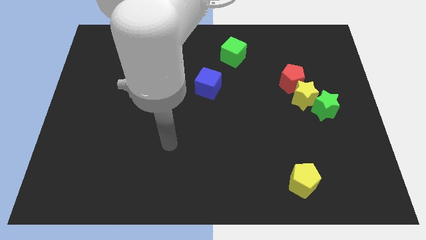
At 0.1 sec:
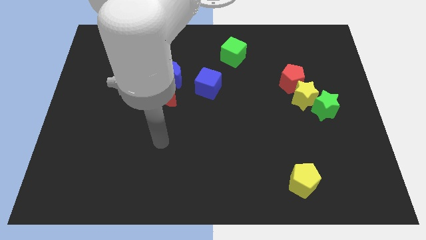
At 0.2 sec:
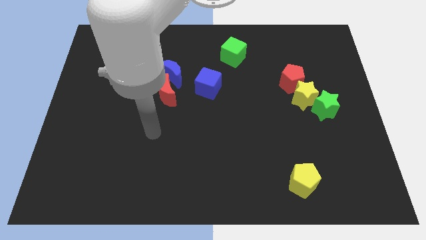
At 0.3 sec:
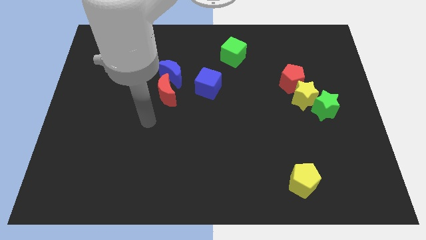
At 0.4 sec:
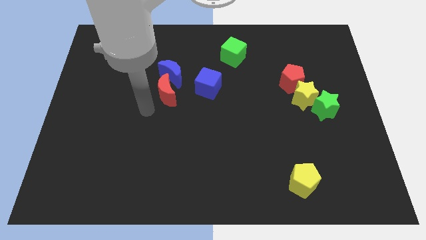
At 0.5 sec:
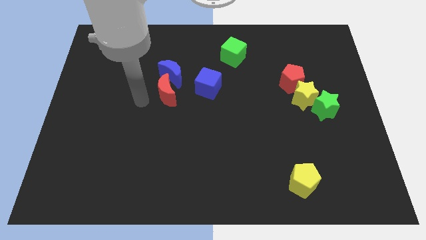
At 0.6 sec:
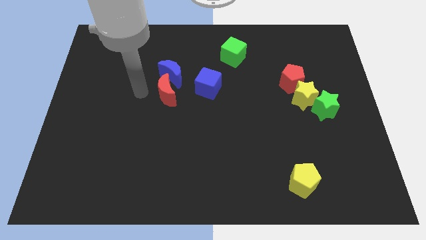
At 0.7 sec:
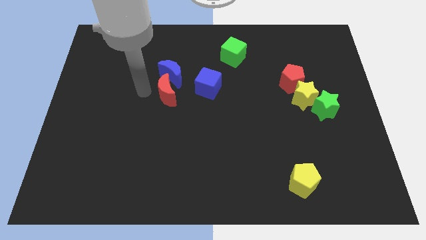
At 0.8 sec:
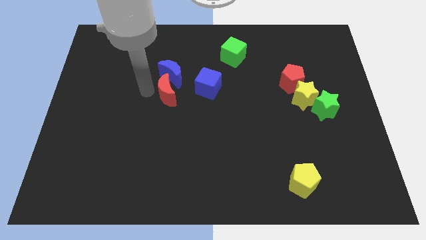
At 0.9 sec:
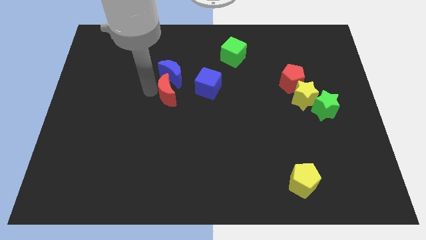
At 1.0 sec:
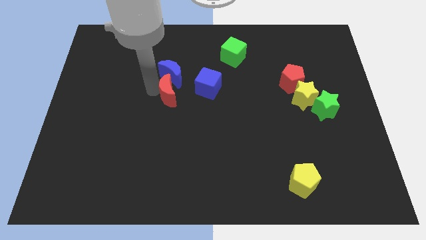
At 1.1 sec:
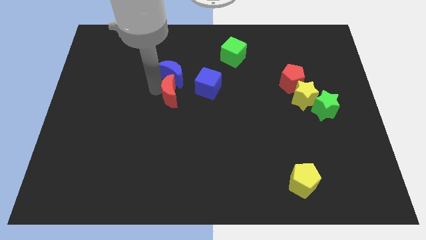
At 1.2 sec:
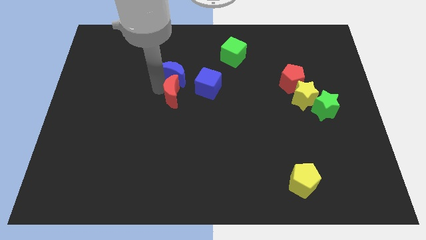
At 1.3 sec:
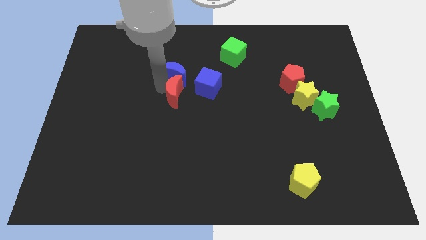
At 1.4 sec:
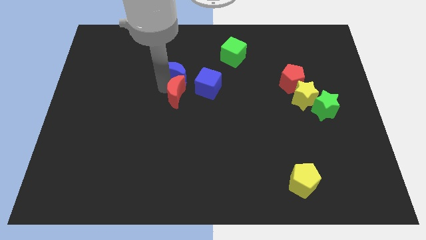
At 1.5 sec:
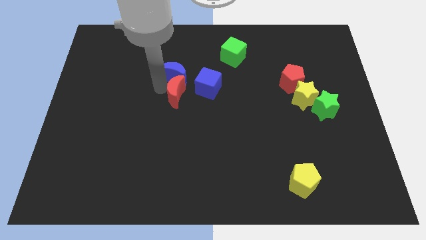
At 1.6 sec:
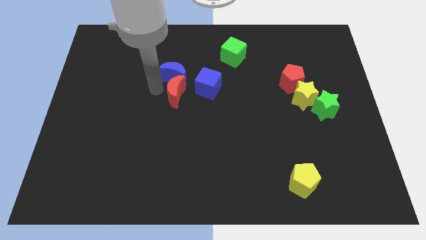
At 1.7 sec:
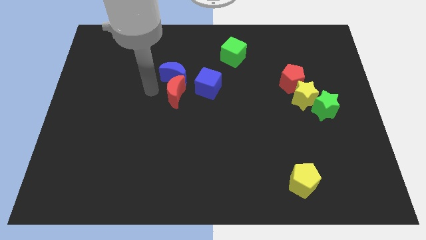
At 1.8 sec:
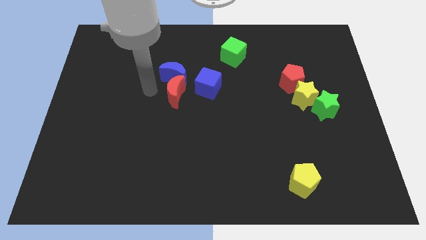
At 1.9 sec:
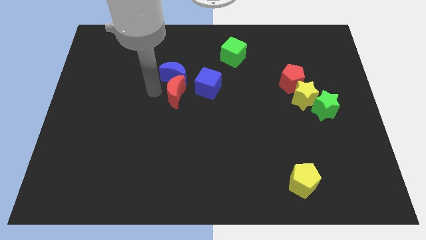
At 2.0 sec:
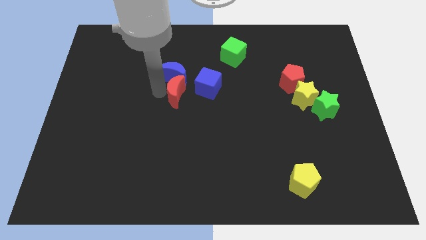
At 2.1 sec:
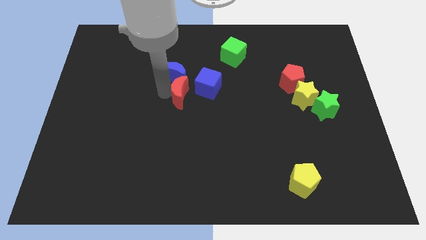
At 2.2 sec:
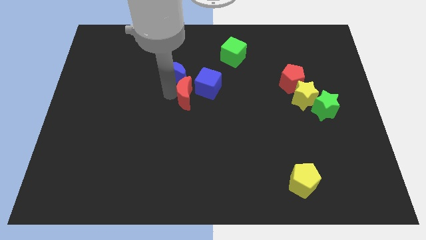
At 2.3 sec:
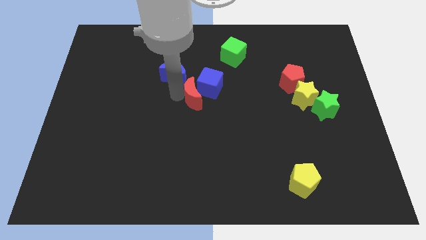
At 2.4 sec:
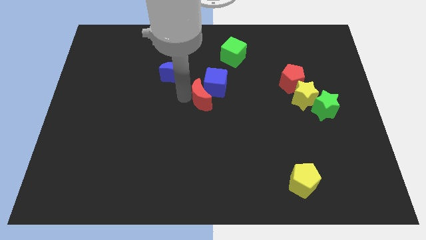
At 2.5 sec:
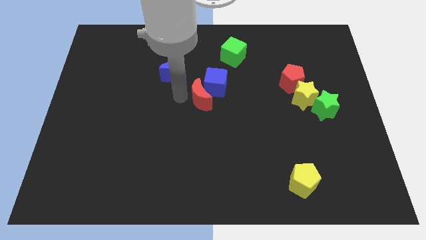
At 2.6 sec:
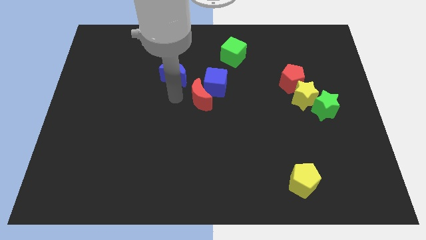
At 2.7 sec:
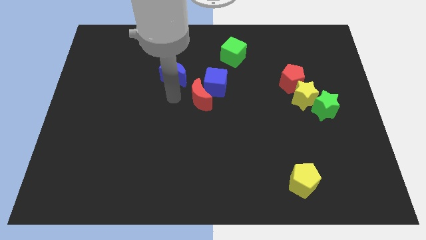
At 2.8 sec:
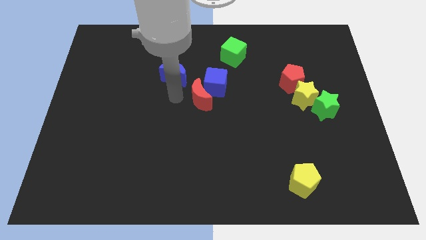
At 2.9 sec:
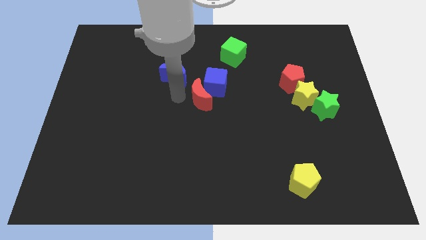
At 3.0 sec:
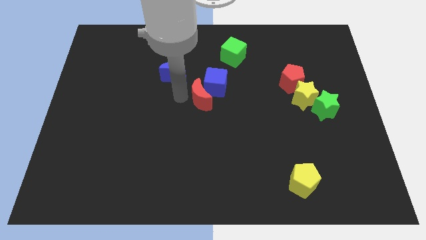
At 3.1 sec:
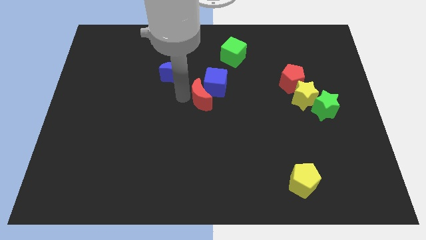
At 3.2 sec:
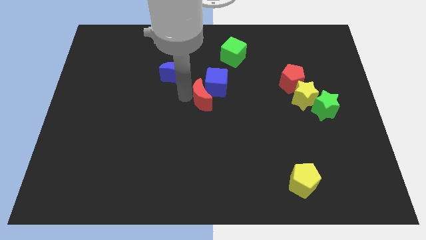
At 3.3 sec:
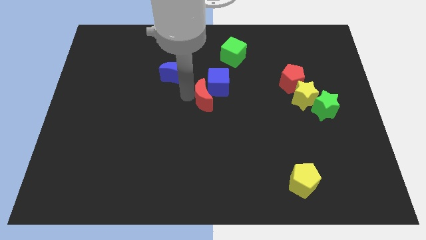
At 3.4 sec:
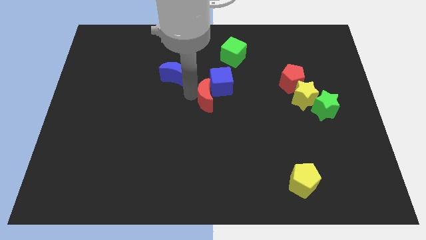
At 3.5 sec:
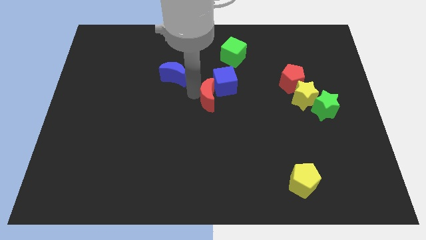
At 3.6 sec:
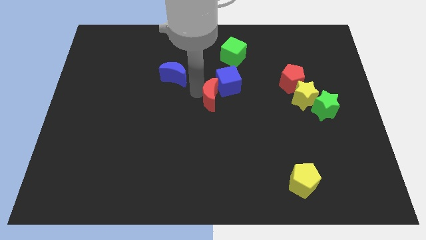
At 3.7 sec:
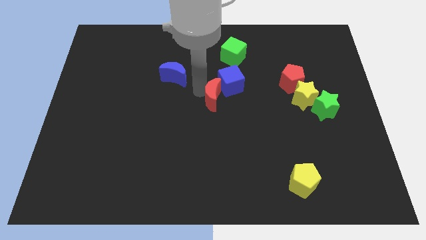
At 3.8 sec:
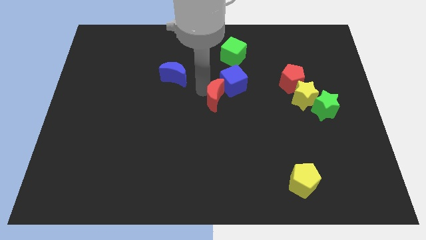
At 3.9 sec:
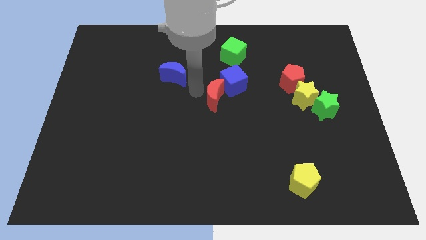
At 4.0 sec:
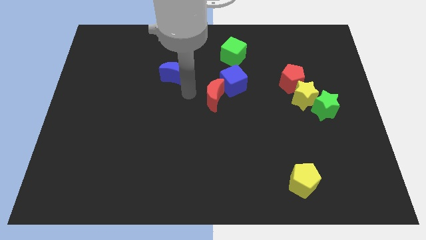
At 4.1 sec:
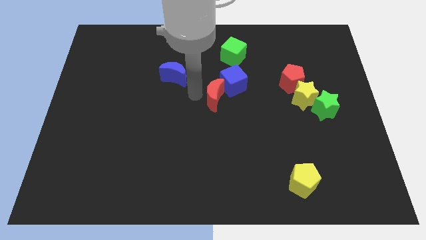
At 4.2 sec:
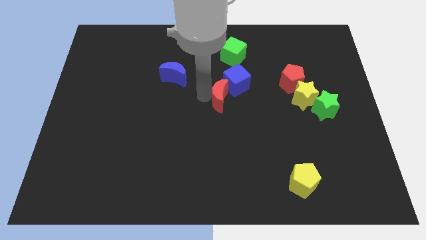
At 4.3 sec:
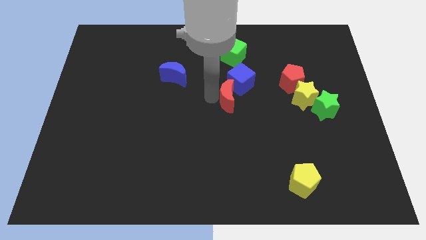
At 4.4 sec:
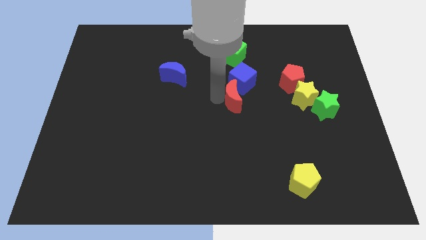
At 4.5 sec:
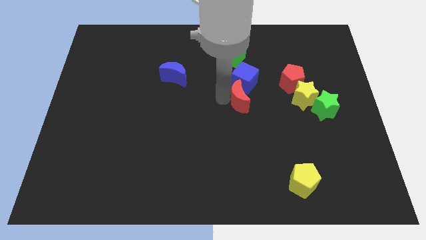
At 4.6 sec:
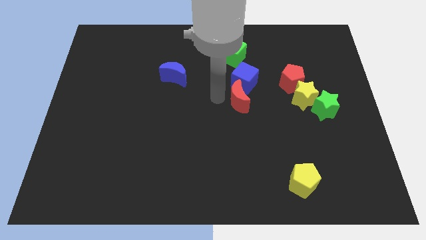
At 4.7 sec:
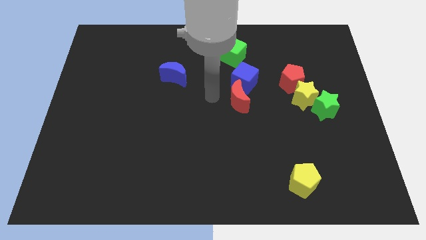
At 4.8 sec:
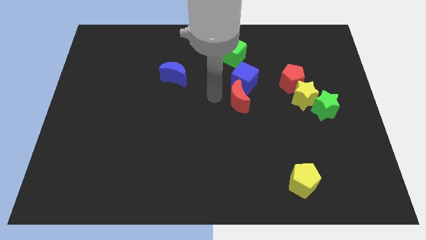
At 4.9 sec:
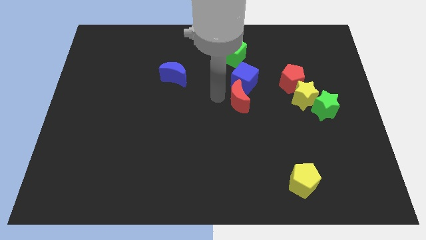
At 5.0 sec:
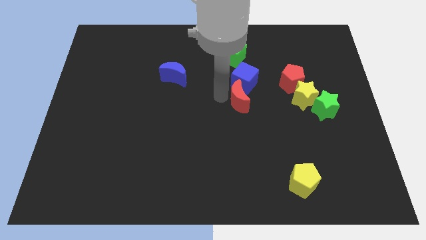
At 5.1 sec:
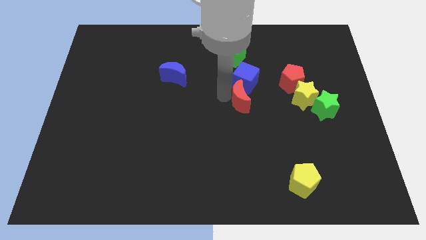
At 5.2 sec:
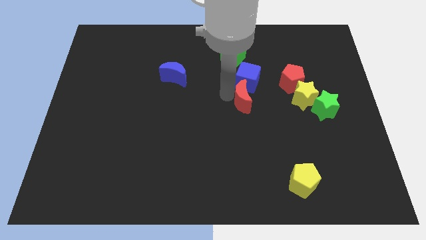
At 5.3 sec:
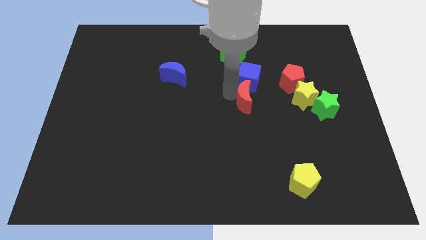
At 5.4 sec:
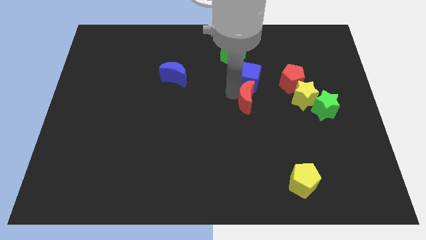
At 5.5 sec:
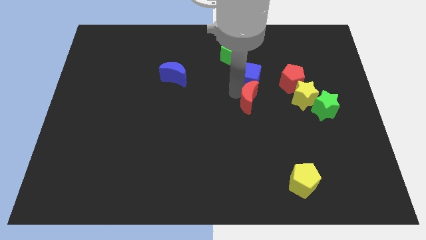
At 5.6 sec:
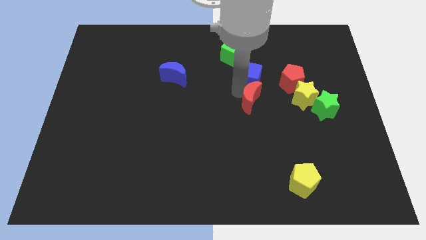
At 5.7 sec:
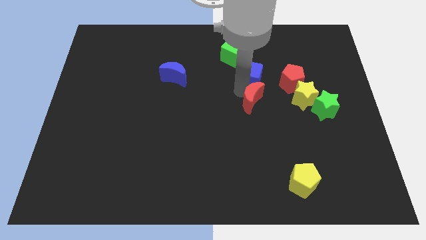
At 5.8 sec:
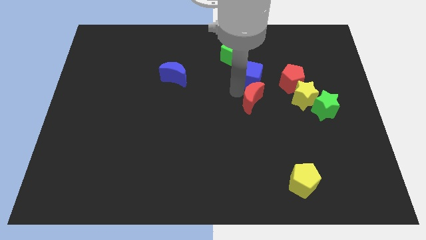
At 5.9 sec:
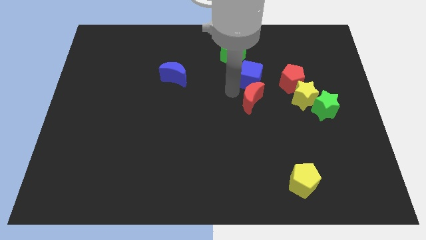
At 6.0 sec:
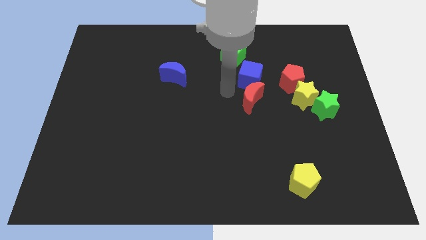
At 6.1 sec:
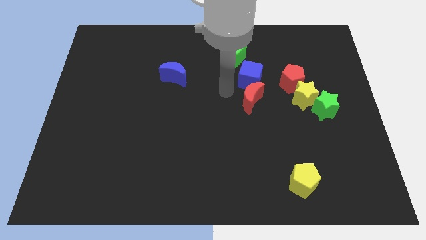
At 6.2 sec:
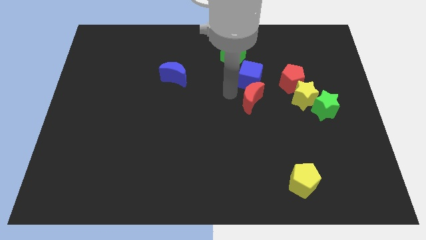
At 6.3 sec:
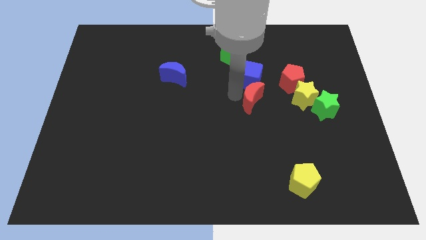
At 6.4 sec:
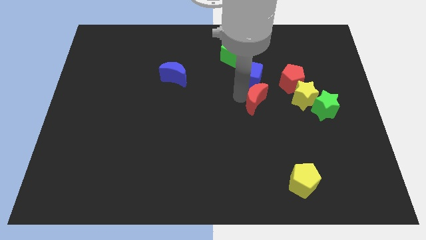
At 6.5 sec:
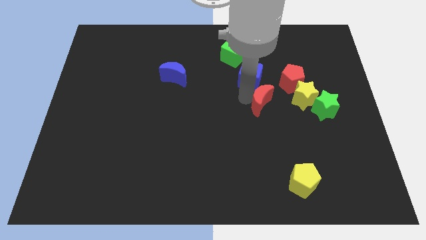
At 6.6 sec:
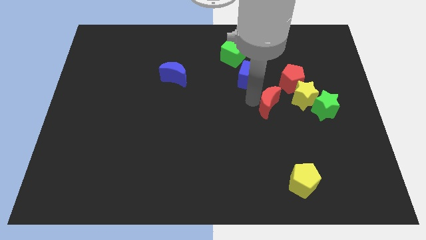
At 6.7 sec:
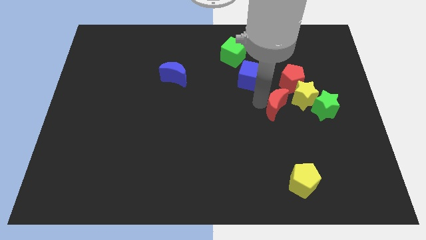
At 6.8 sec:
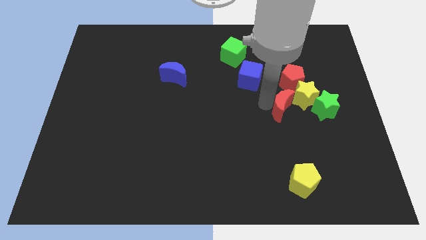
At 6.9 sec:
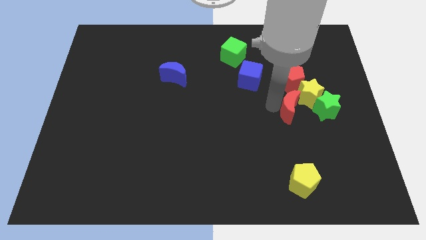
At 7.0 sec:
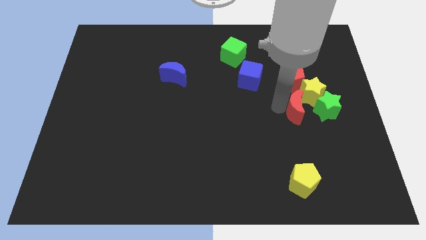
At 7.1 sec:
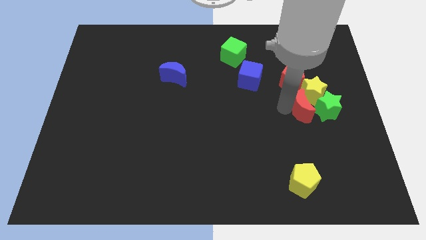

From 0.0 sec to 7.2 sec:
move the red moon next to the green star
